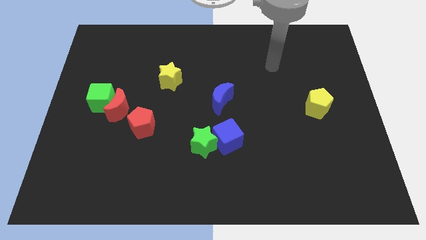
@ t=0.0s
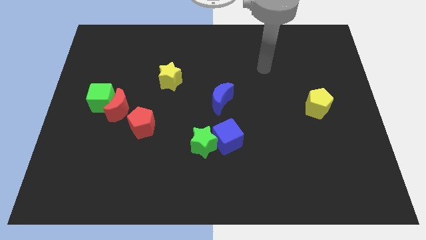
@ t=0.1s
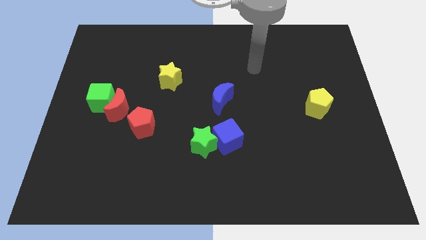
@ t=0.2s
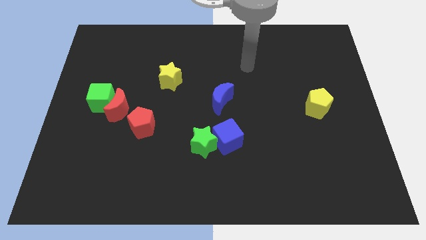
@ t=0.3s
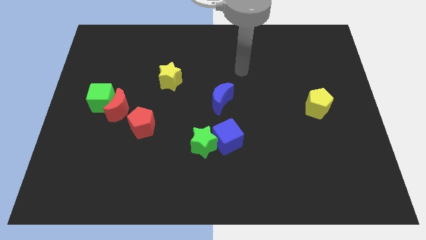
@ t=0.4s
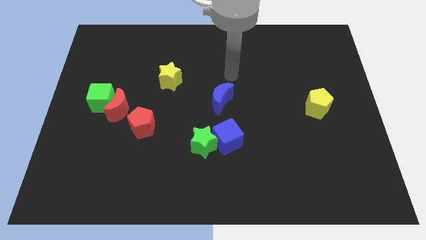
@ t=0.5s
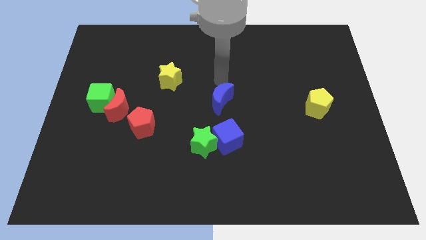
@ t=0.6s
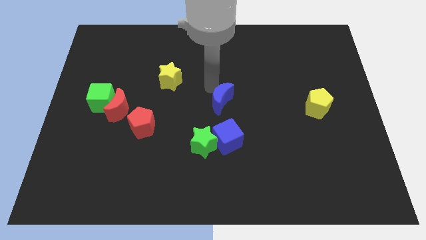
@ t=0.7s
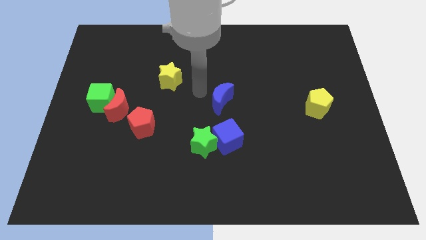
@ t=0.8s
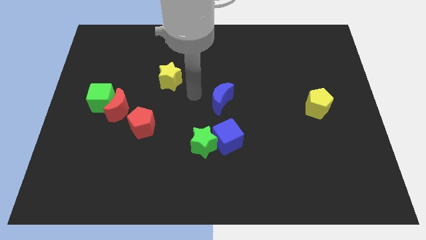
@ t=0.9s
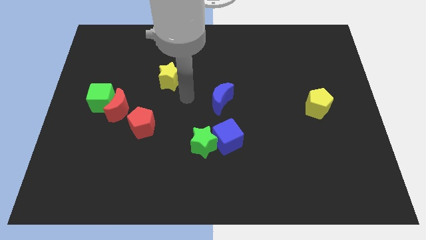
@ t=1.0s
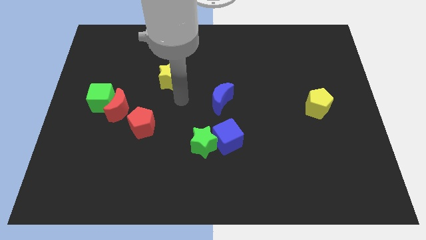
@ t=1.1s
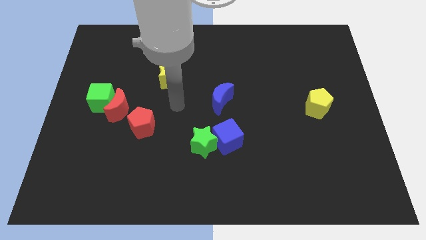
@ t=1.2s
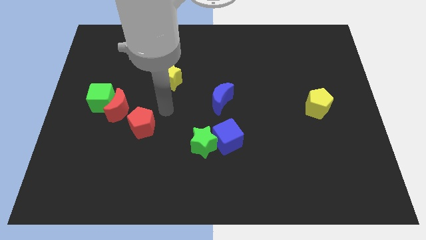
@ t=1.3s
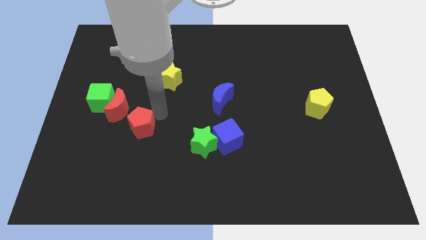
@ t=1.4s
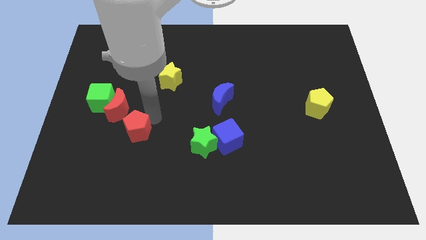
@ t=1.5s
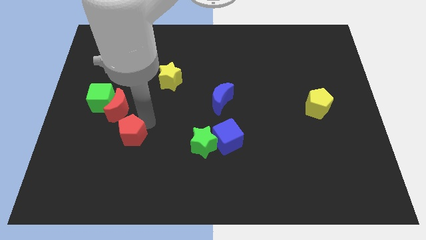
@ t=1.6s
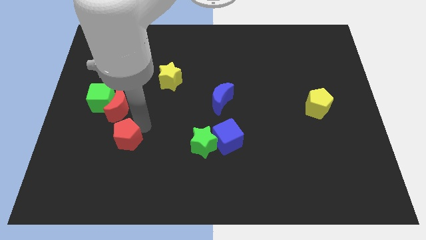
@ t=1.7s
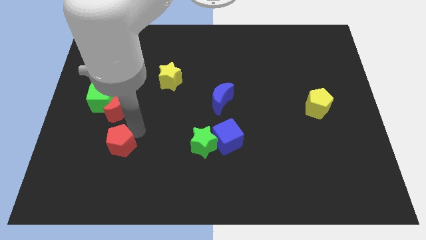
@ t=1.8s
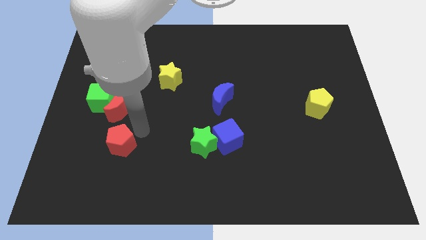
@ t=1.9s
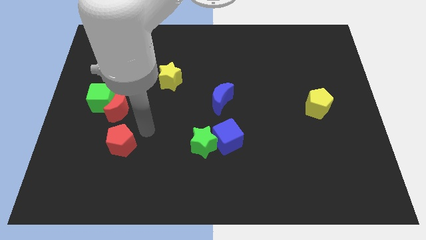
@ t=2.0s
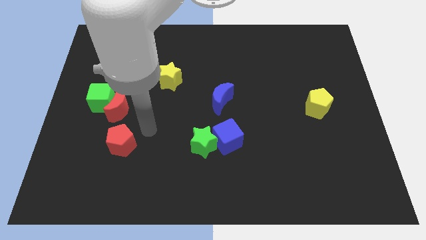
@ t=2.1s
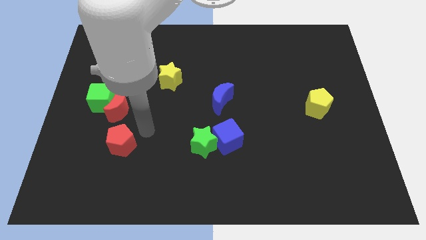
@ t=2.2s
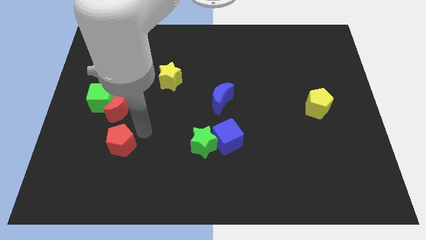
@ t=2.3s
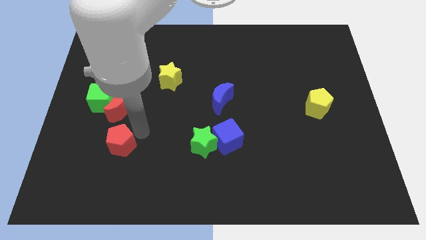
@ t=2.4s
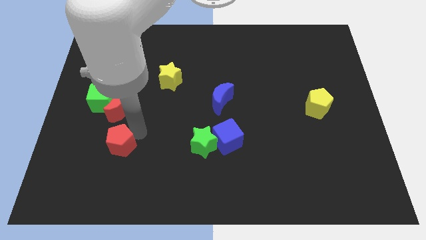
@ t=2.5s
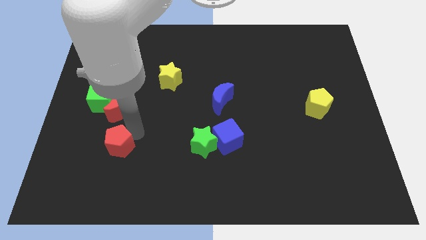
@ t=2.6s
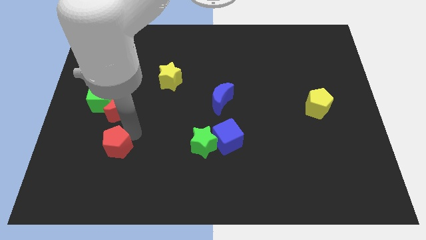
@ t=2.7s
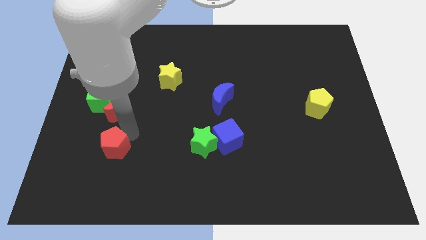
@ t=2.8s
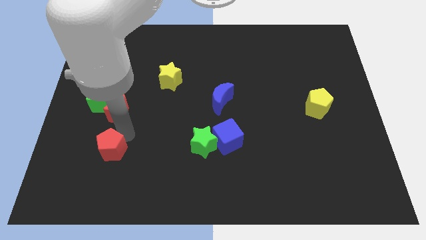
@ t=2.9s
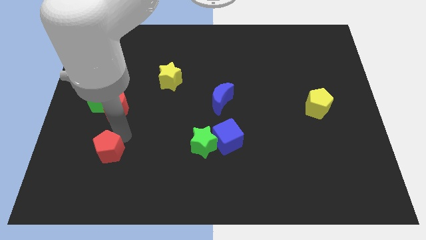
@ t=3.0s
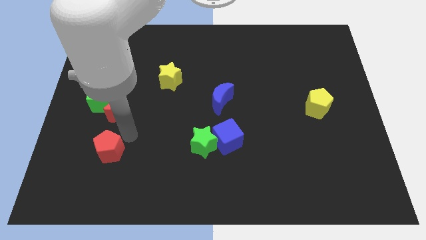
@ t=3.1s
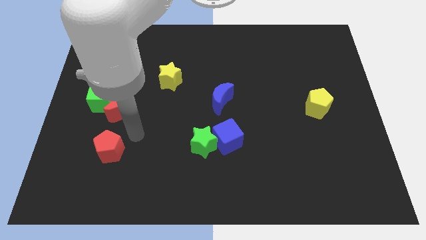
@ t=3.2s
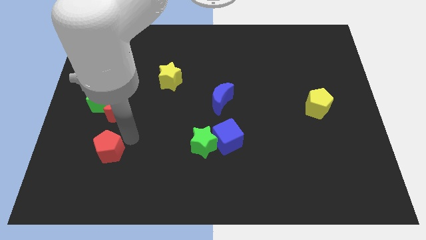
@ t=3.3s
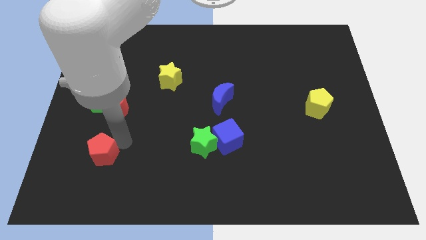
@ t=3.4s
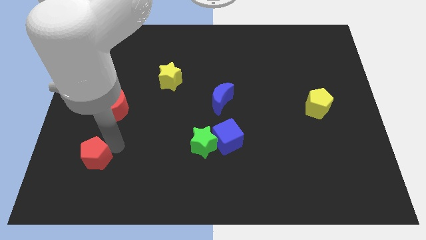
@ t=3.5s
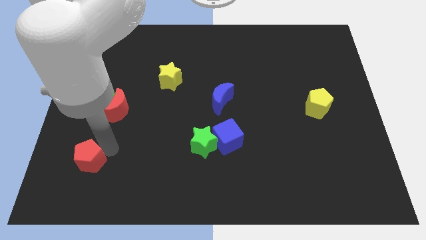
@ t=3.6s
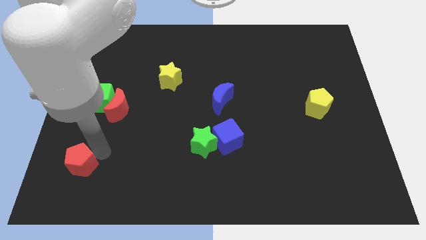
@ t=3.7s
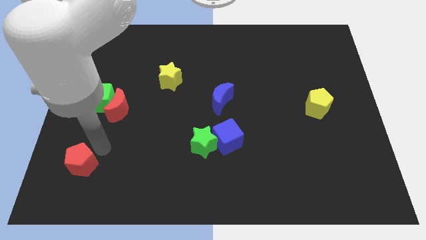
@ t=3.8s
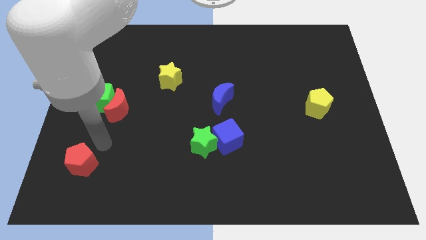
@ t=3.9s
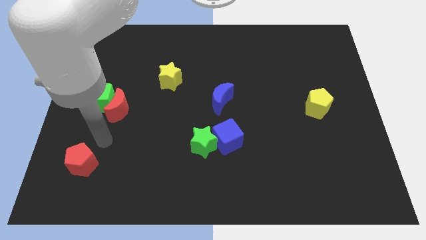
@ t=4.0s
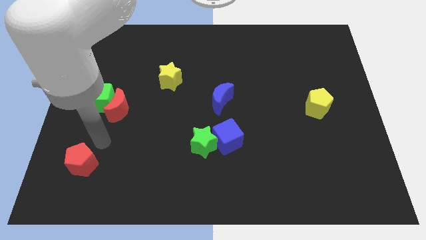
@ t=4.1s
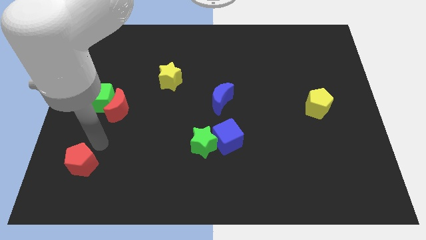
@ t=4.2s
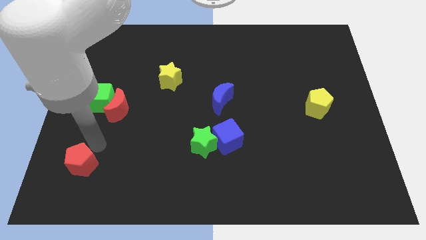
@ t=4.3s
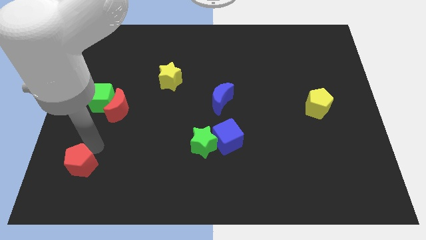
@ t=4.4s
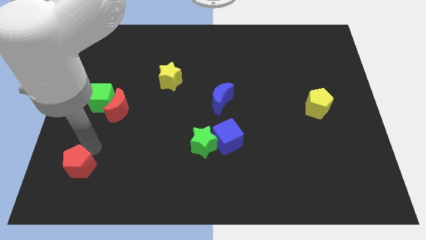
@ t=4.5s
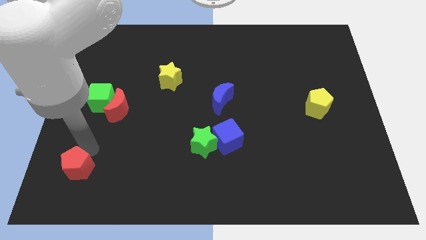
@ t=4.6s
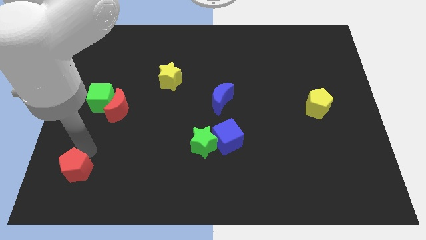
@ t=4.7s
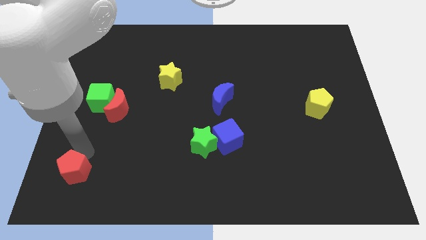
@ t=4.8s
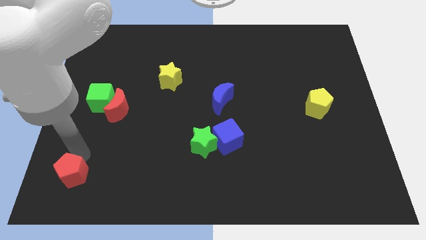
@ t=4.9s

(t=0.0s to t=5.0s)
put the red pentagon to the bottom left corner

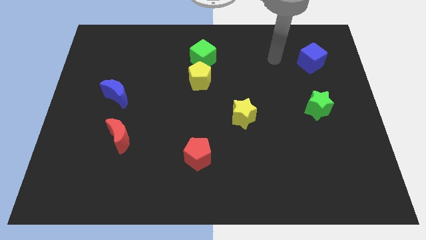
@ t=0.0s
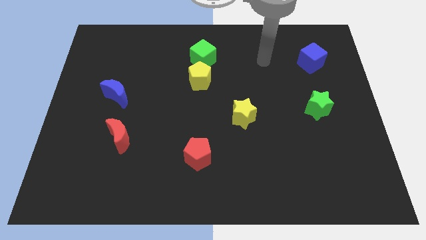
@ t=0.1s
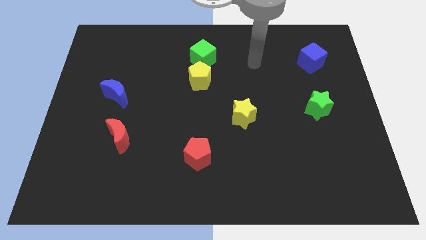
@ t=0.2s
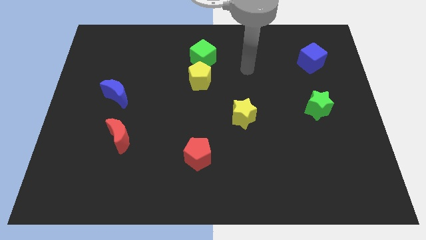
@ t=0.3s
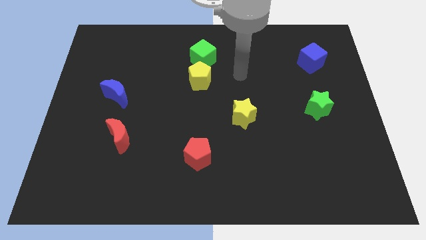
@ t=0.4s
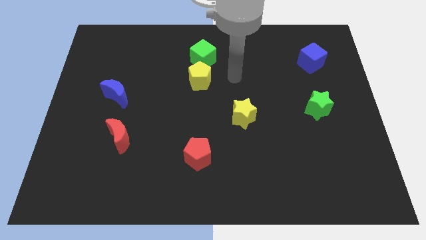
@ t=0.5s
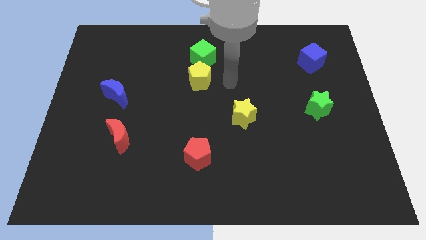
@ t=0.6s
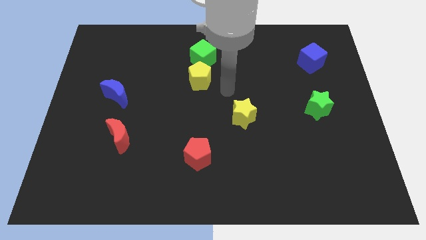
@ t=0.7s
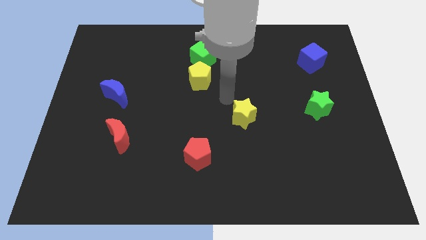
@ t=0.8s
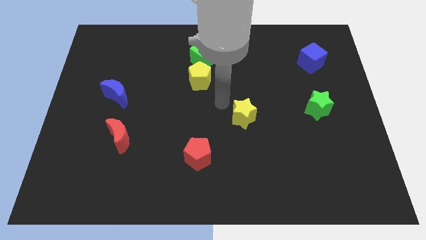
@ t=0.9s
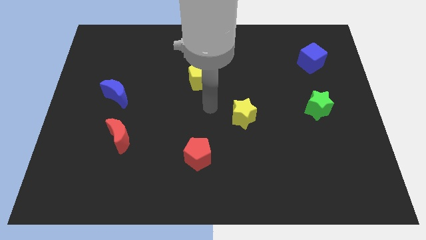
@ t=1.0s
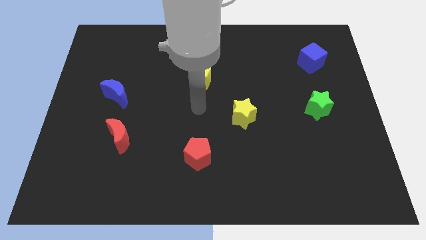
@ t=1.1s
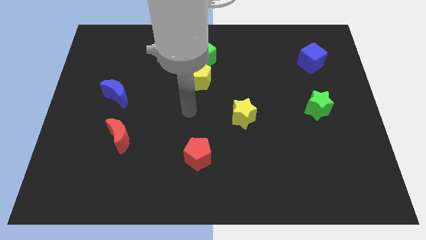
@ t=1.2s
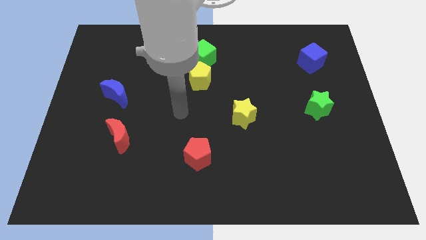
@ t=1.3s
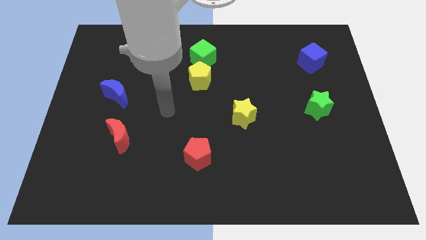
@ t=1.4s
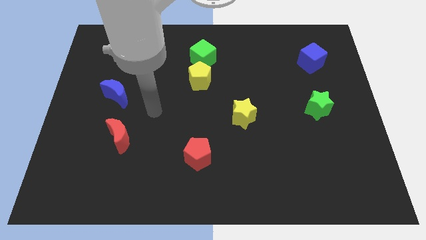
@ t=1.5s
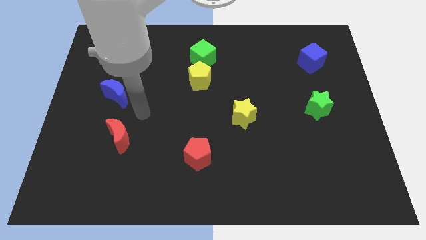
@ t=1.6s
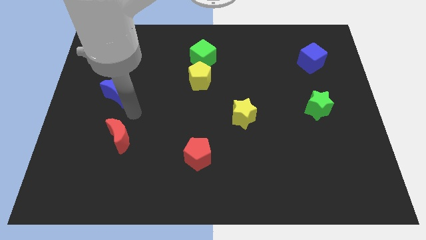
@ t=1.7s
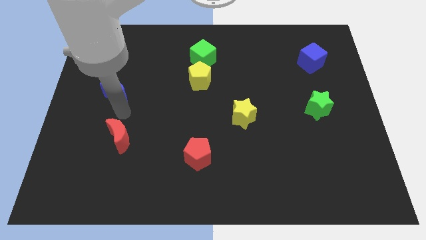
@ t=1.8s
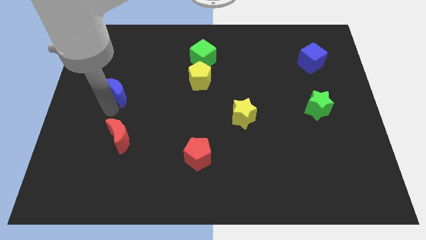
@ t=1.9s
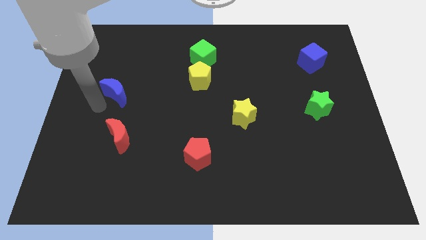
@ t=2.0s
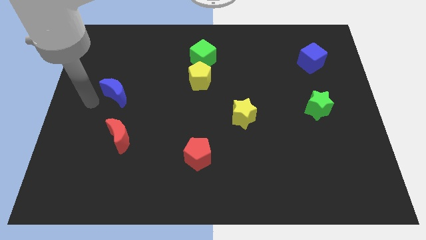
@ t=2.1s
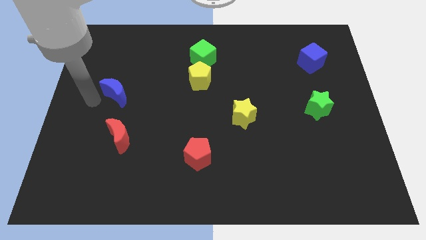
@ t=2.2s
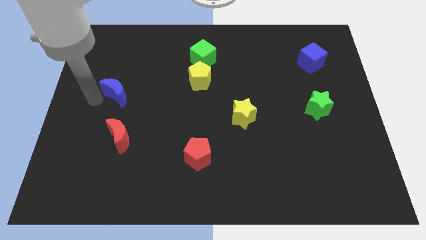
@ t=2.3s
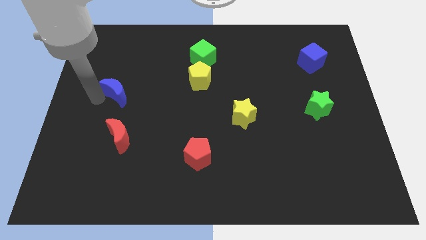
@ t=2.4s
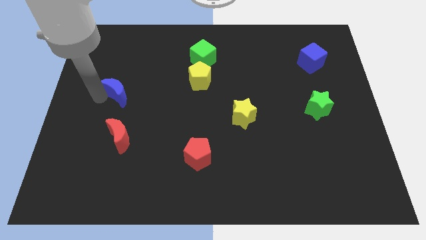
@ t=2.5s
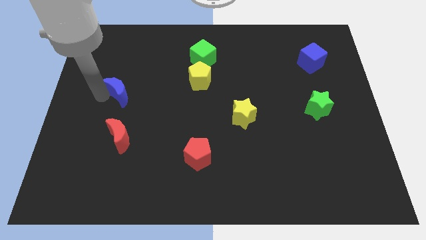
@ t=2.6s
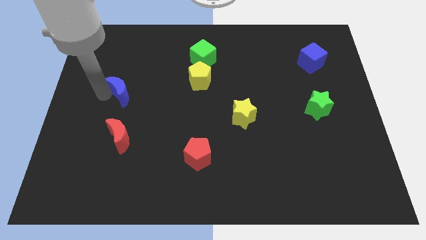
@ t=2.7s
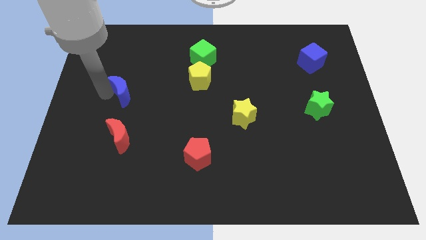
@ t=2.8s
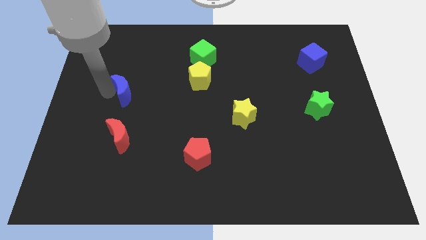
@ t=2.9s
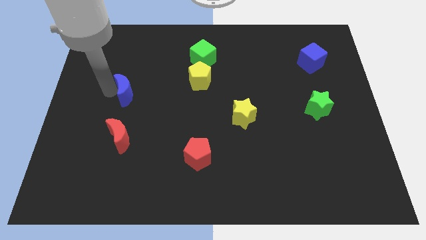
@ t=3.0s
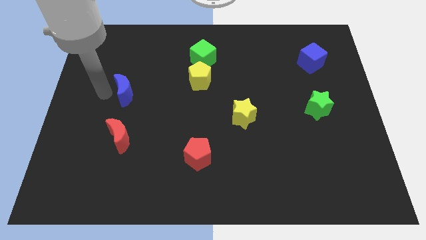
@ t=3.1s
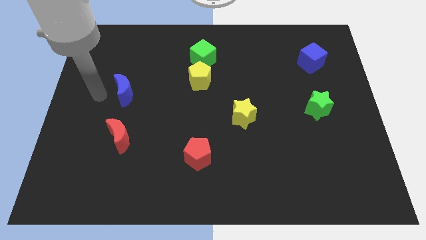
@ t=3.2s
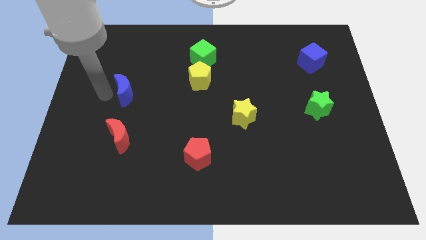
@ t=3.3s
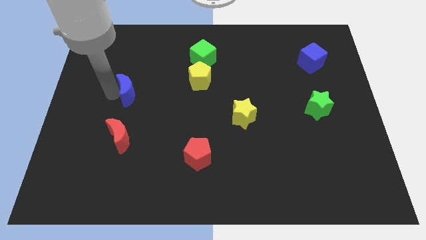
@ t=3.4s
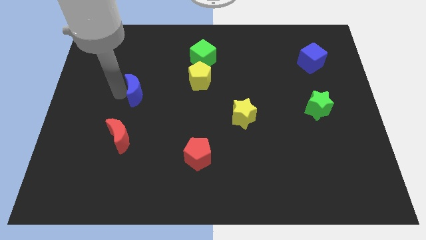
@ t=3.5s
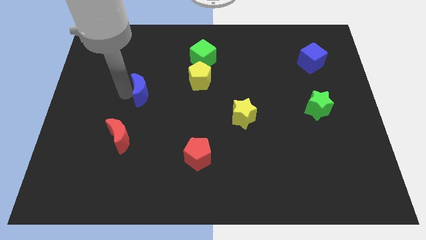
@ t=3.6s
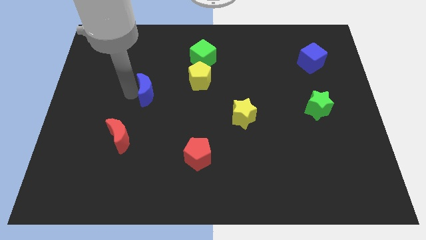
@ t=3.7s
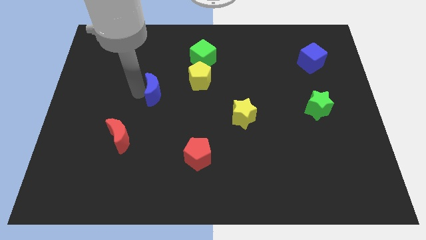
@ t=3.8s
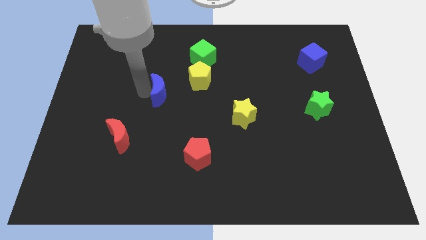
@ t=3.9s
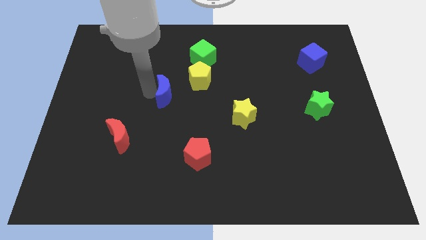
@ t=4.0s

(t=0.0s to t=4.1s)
move the blue moon to the middle of the board
